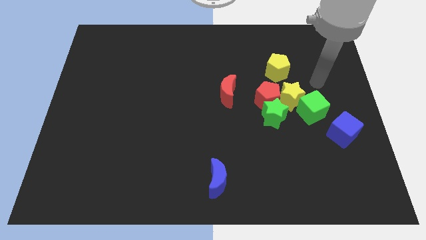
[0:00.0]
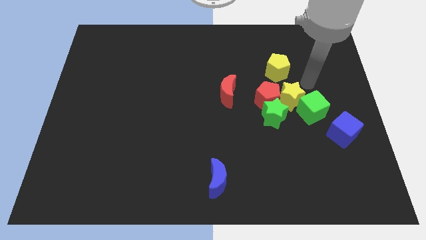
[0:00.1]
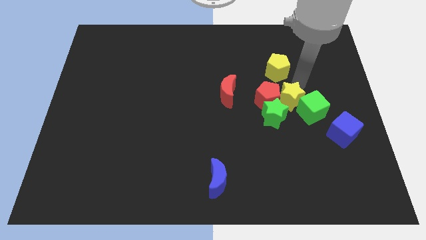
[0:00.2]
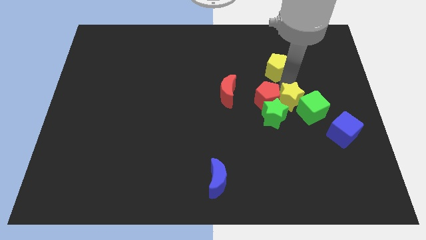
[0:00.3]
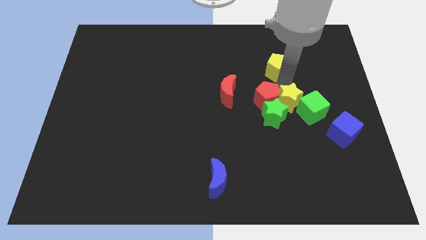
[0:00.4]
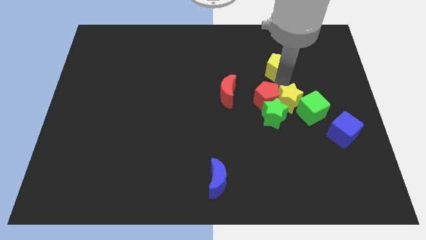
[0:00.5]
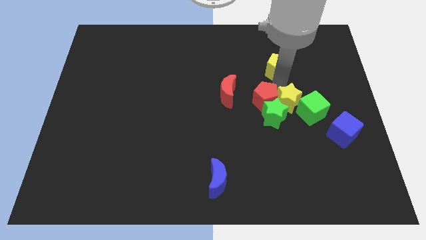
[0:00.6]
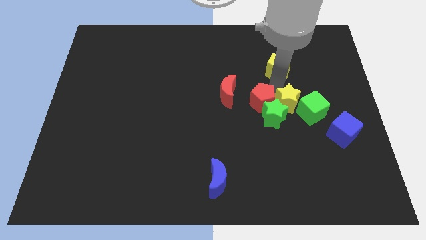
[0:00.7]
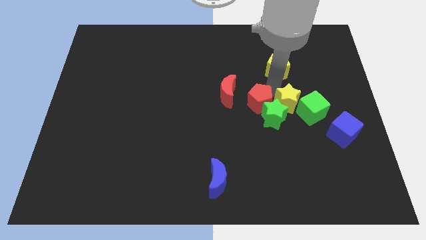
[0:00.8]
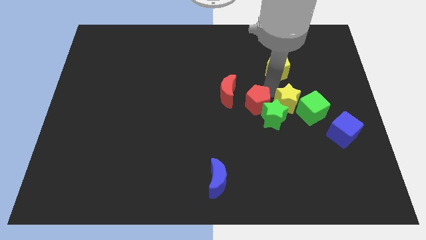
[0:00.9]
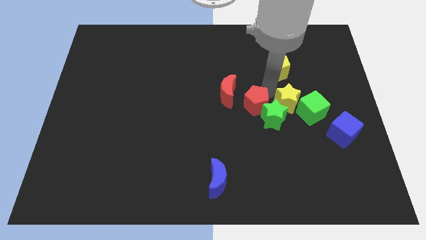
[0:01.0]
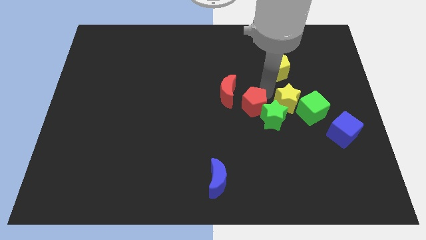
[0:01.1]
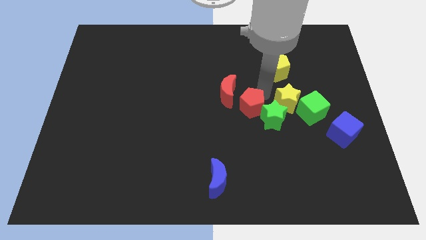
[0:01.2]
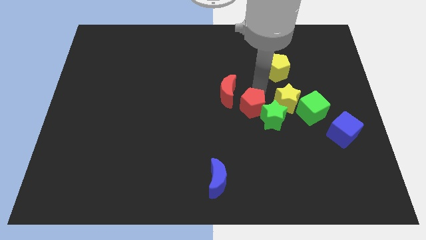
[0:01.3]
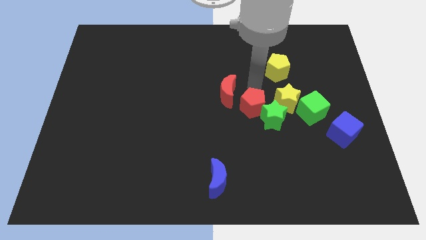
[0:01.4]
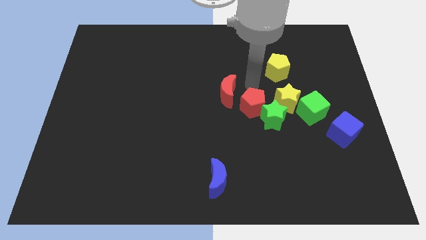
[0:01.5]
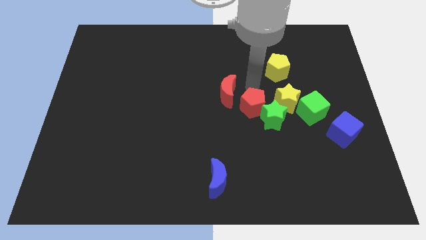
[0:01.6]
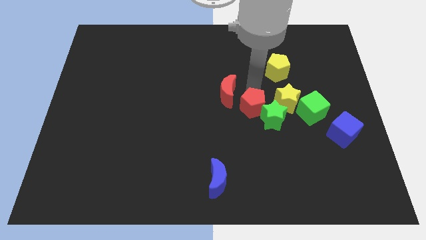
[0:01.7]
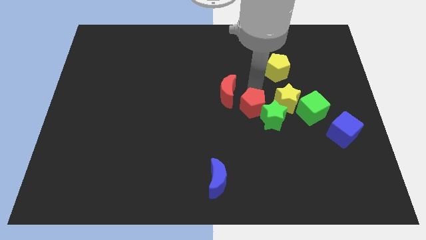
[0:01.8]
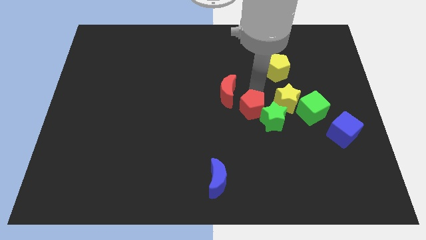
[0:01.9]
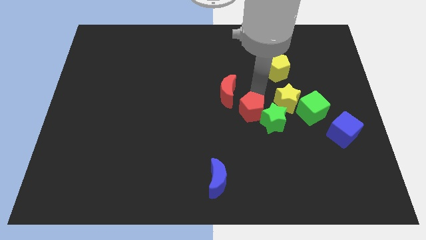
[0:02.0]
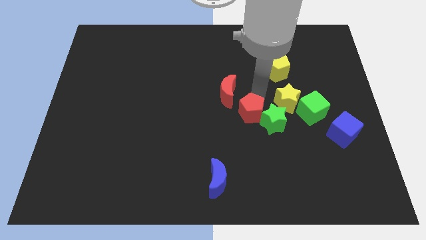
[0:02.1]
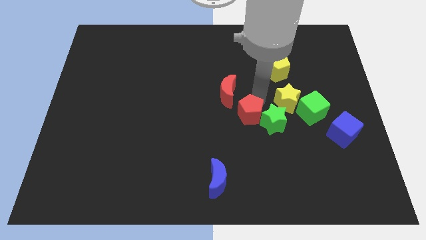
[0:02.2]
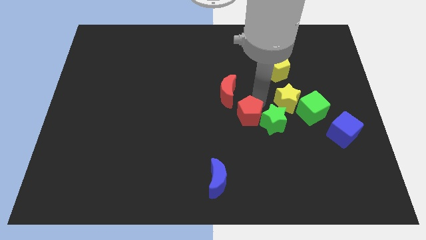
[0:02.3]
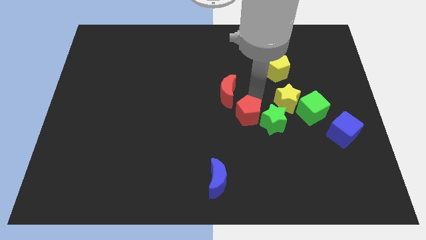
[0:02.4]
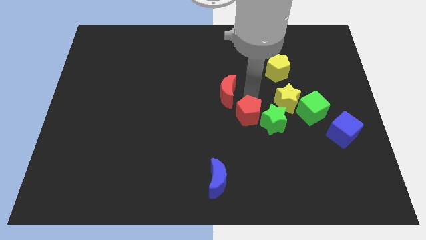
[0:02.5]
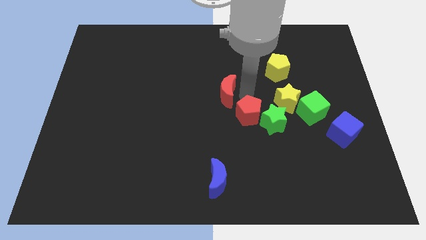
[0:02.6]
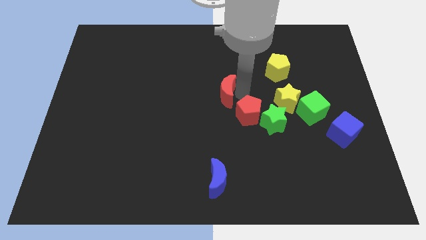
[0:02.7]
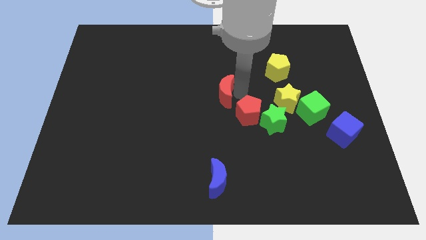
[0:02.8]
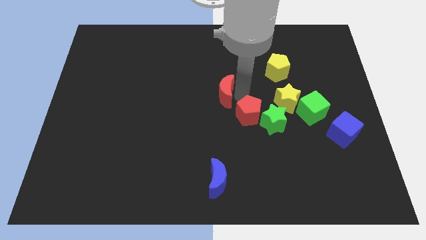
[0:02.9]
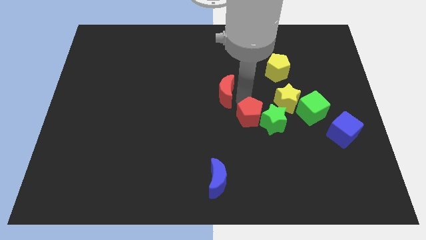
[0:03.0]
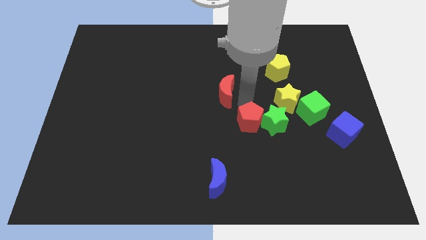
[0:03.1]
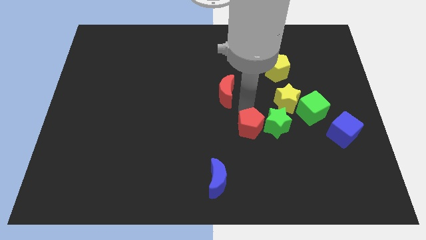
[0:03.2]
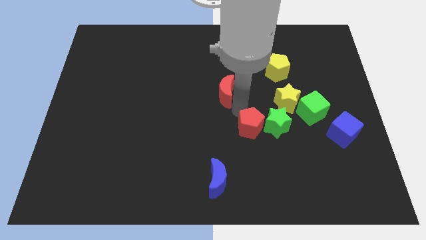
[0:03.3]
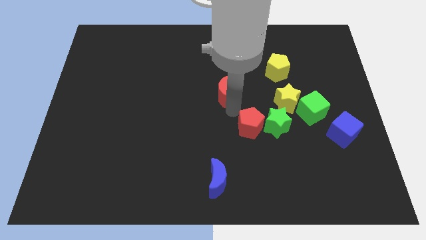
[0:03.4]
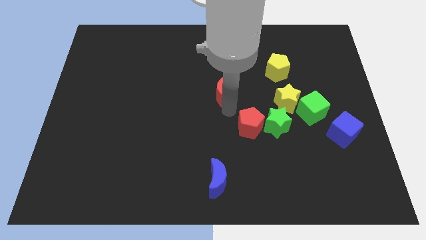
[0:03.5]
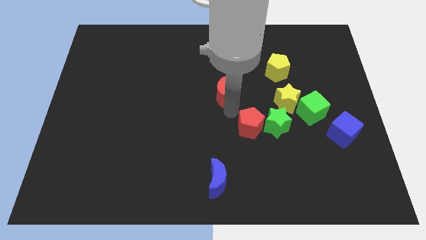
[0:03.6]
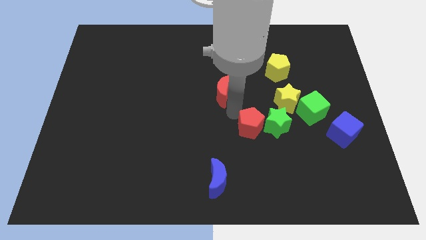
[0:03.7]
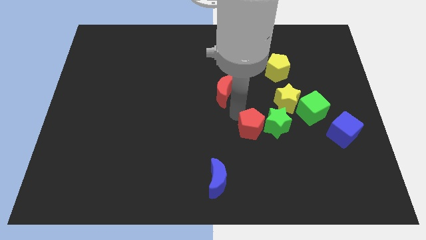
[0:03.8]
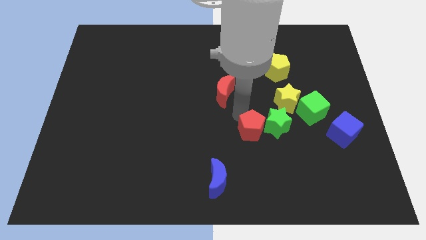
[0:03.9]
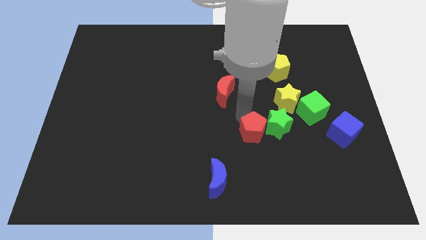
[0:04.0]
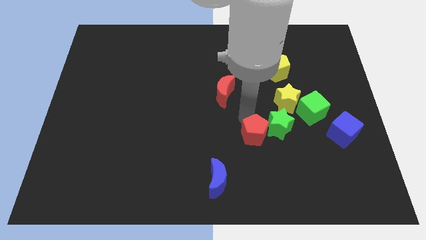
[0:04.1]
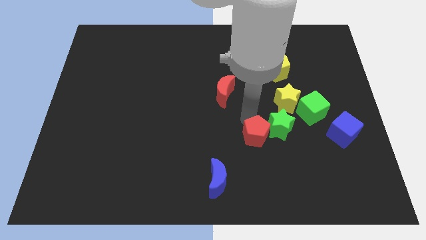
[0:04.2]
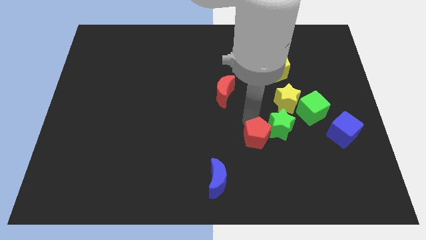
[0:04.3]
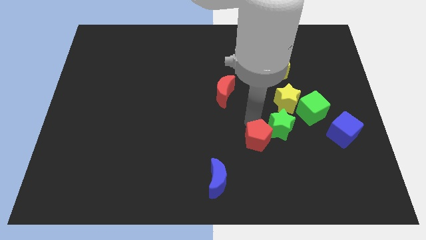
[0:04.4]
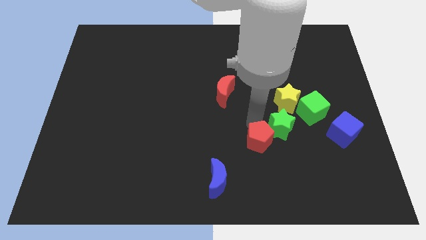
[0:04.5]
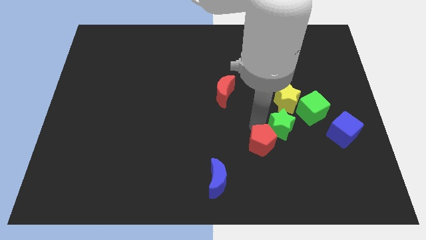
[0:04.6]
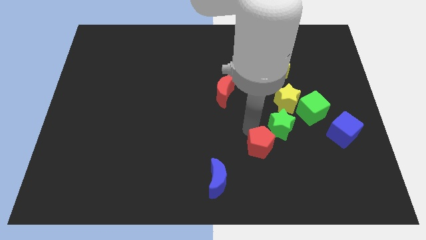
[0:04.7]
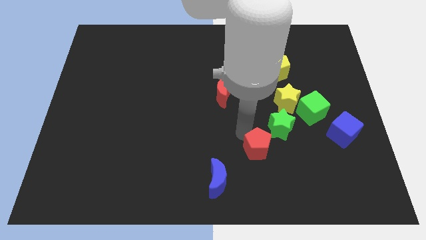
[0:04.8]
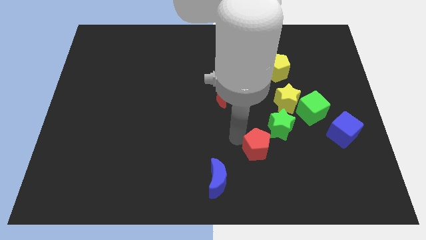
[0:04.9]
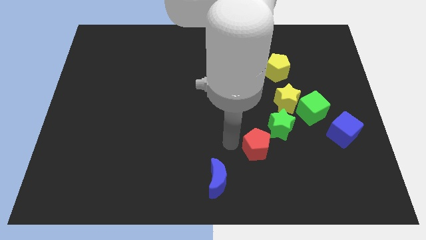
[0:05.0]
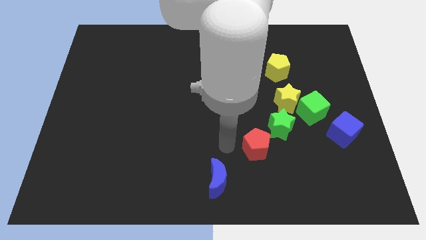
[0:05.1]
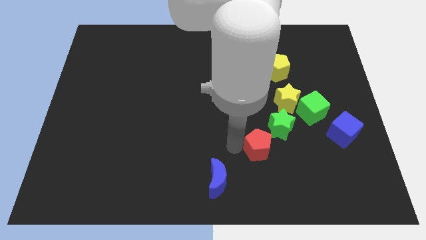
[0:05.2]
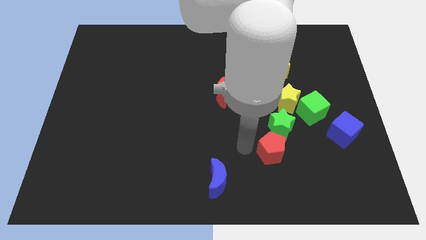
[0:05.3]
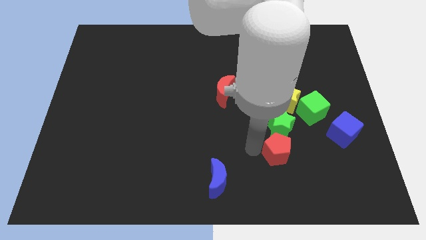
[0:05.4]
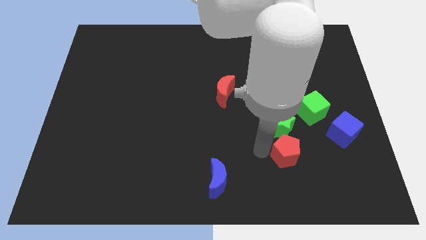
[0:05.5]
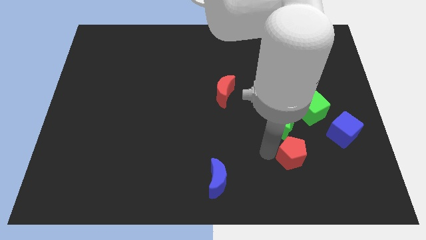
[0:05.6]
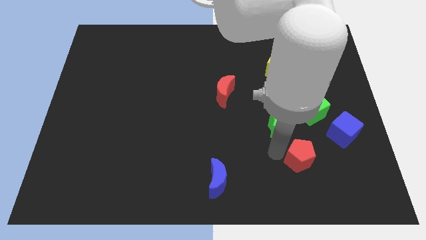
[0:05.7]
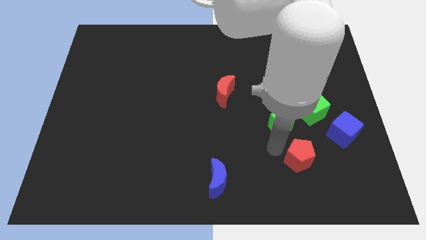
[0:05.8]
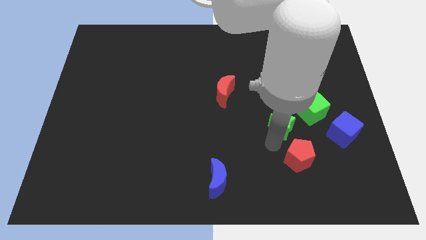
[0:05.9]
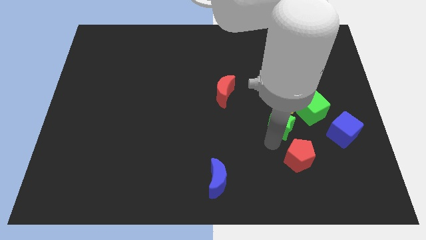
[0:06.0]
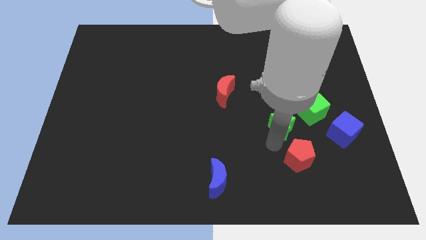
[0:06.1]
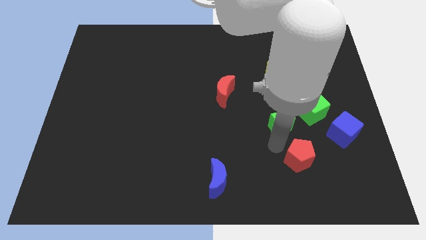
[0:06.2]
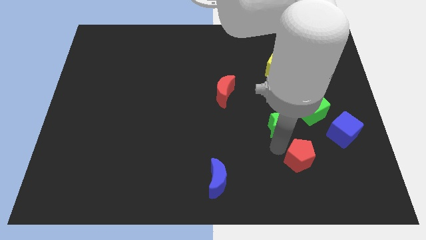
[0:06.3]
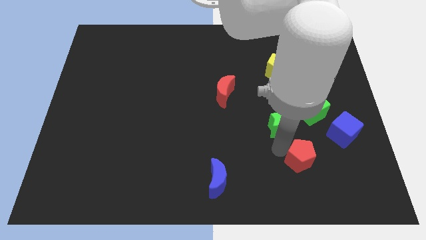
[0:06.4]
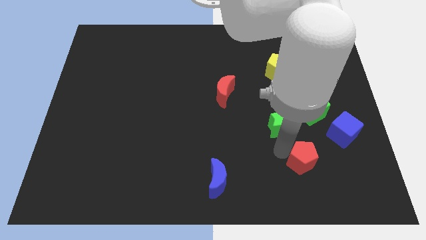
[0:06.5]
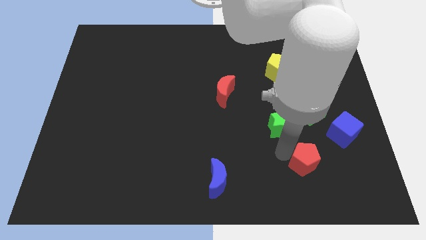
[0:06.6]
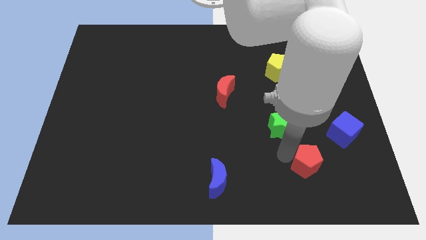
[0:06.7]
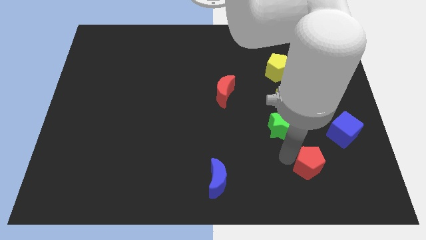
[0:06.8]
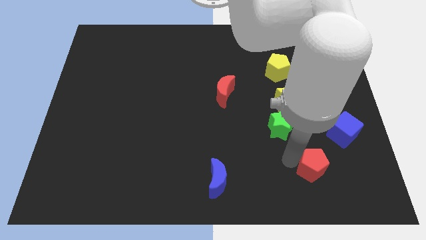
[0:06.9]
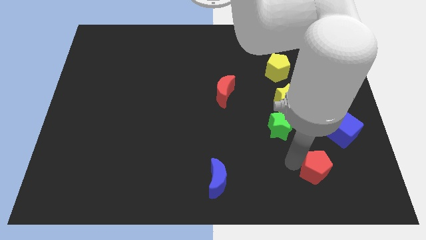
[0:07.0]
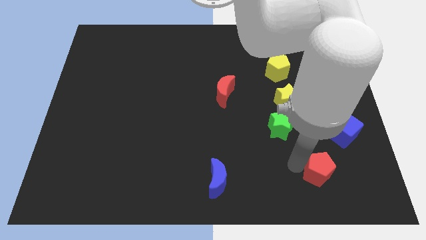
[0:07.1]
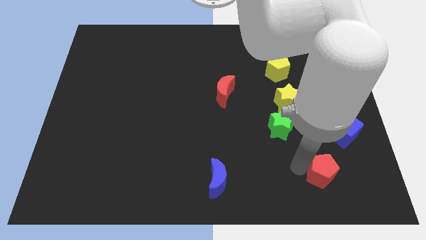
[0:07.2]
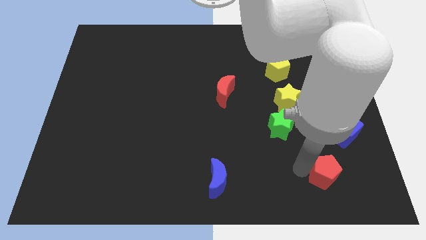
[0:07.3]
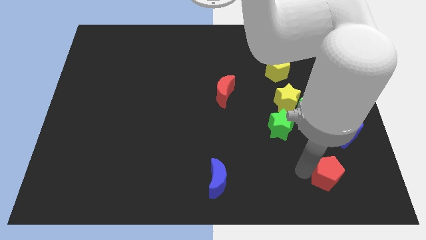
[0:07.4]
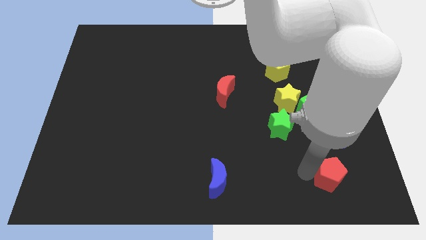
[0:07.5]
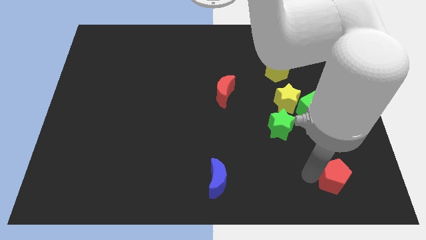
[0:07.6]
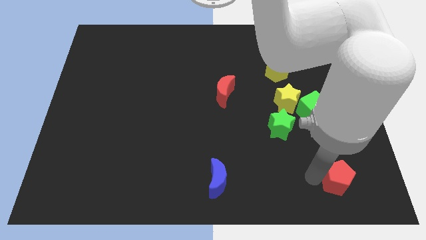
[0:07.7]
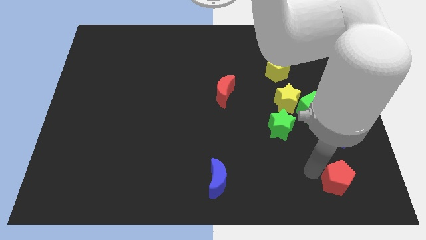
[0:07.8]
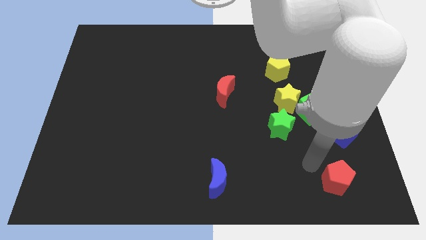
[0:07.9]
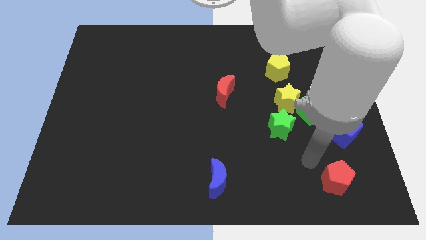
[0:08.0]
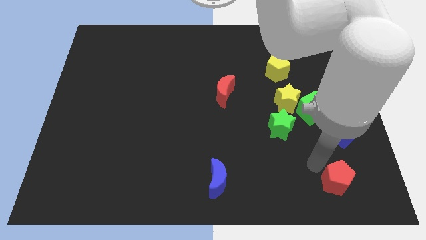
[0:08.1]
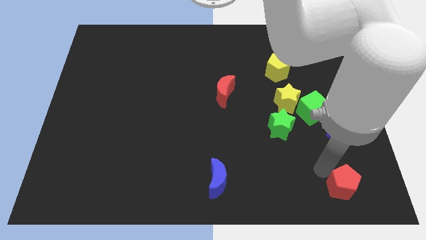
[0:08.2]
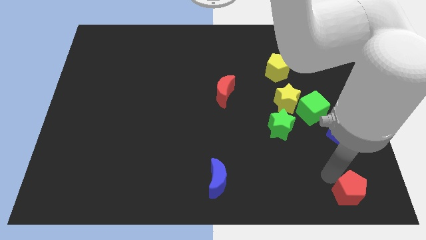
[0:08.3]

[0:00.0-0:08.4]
slide the red pentagon to the bottom right
